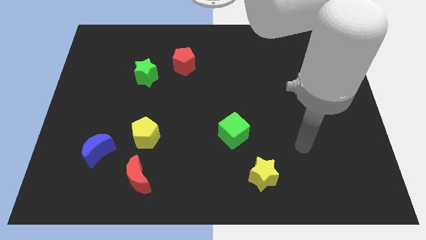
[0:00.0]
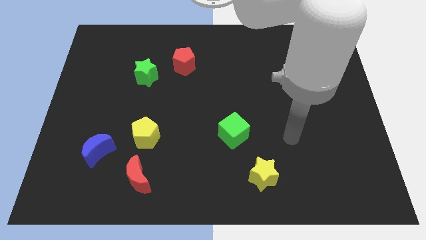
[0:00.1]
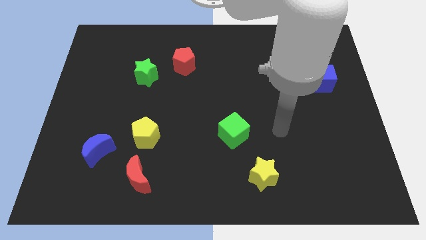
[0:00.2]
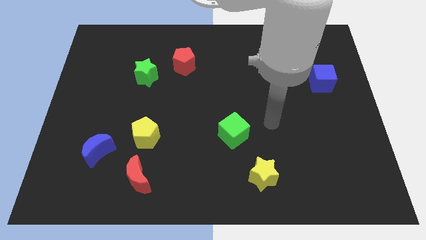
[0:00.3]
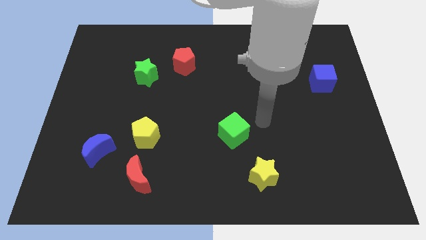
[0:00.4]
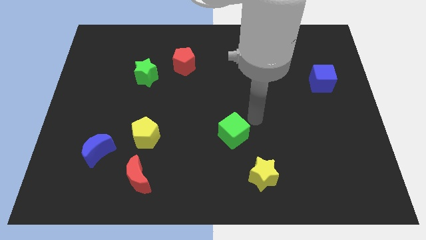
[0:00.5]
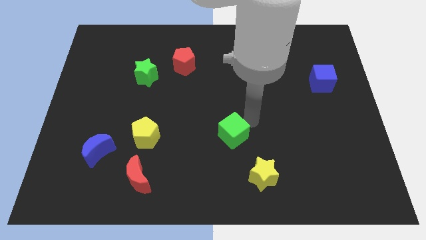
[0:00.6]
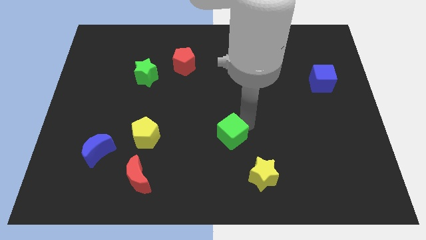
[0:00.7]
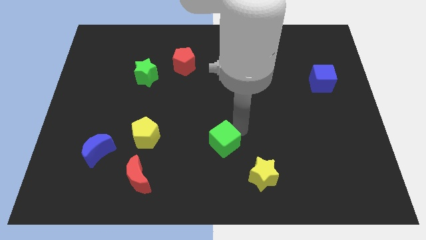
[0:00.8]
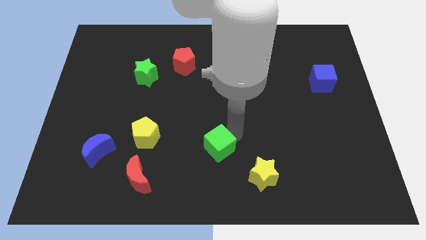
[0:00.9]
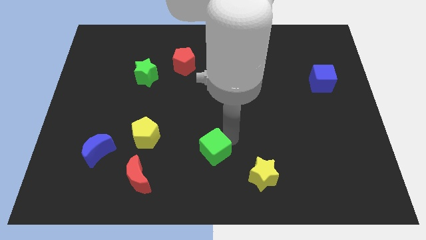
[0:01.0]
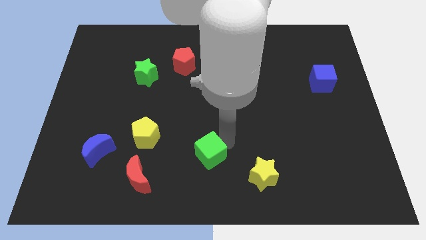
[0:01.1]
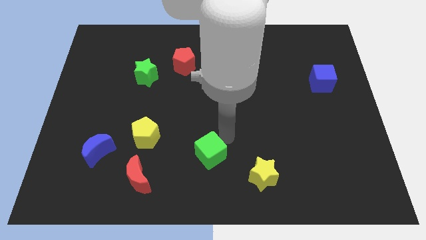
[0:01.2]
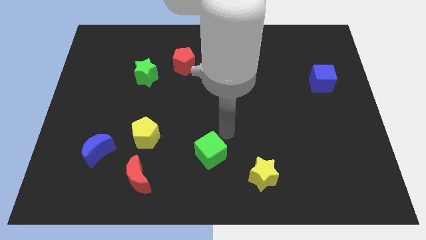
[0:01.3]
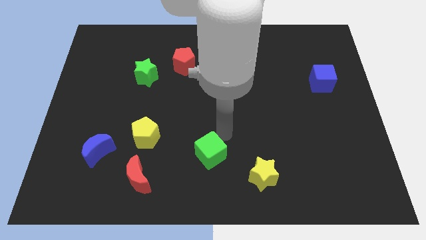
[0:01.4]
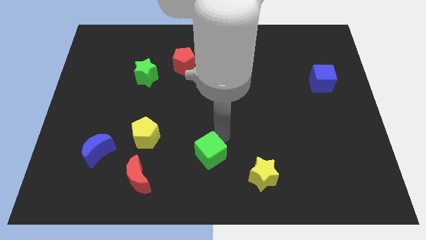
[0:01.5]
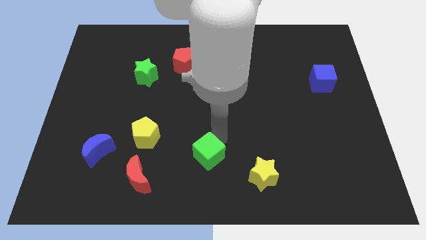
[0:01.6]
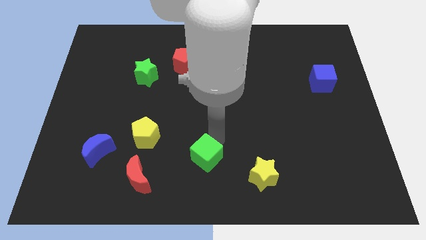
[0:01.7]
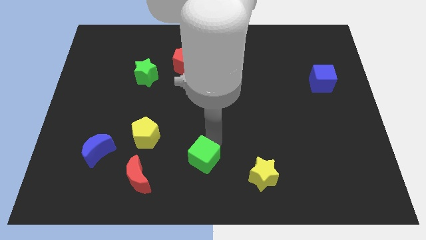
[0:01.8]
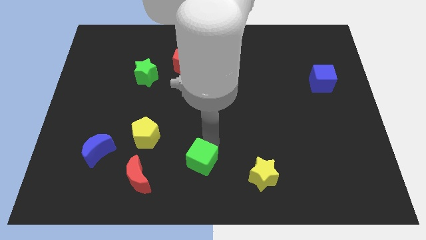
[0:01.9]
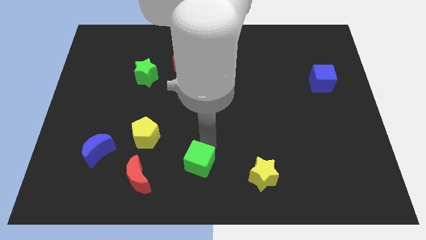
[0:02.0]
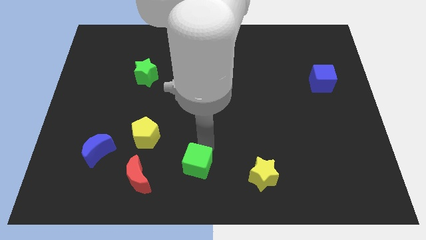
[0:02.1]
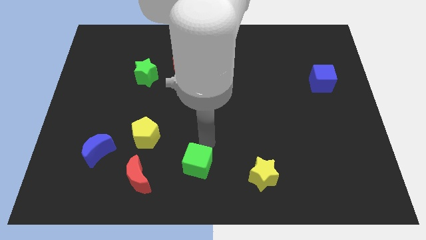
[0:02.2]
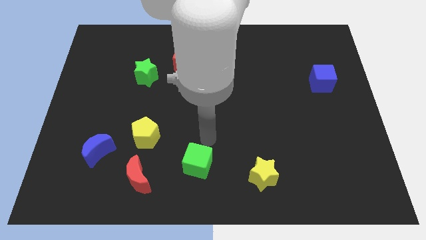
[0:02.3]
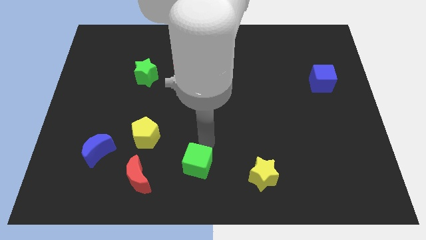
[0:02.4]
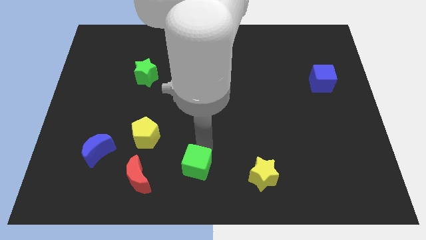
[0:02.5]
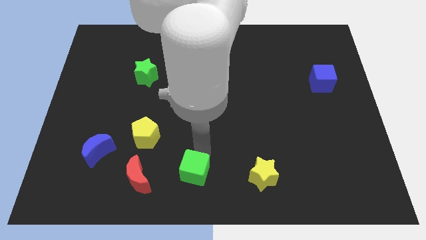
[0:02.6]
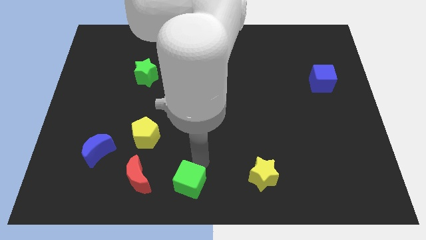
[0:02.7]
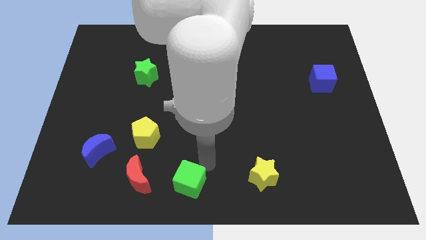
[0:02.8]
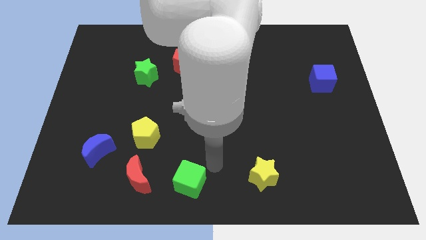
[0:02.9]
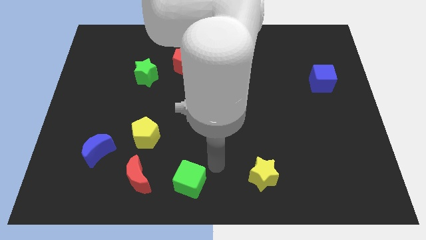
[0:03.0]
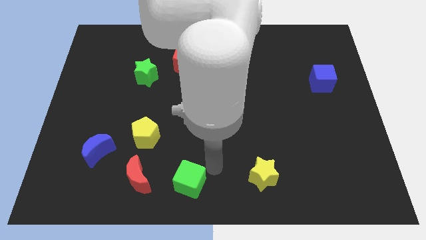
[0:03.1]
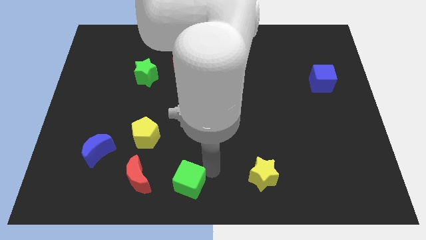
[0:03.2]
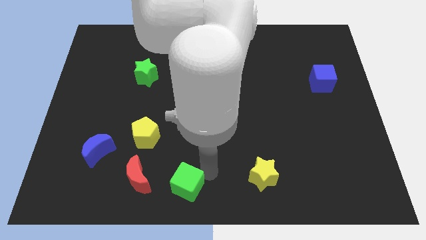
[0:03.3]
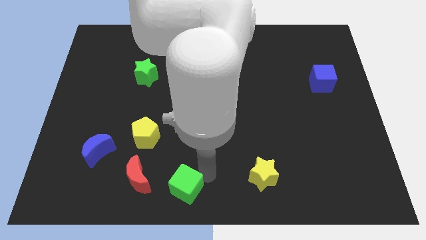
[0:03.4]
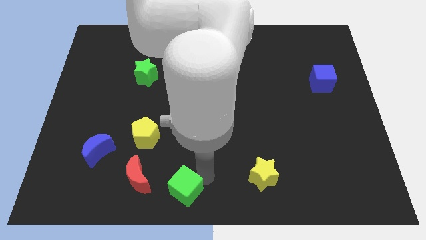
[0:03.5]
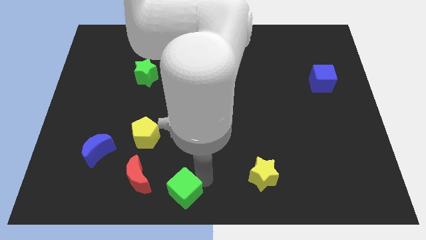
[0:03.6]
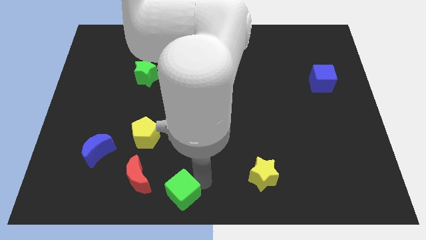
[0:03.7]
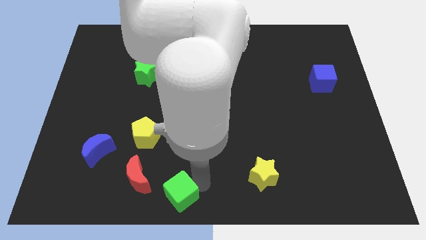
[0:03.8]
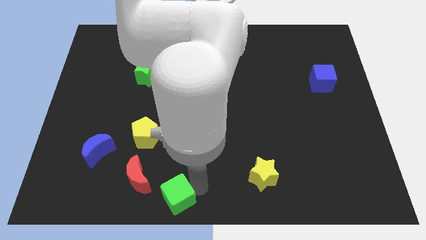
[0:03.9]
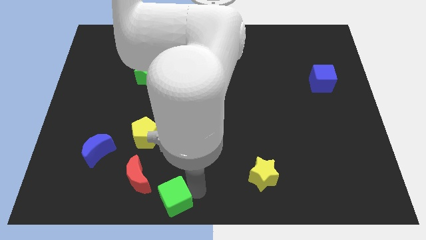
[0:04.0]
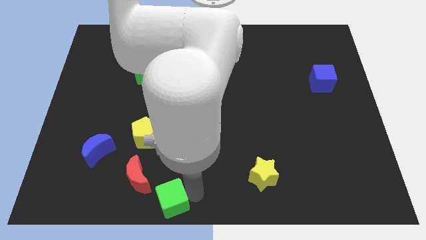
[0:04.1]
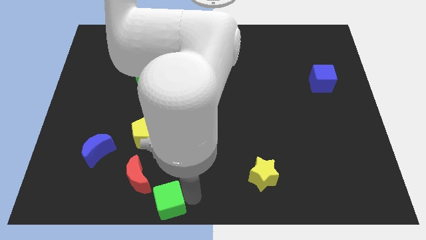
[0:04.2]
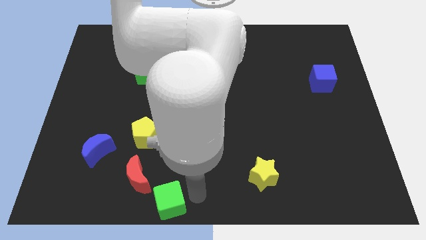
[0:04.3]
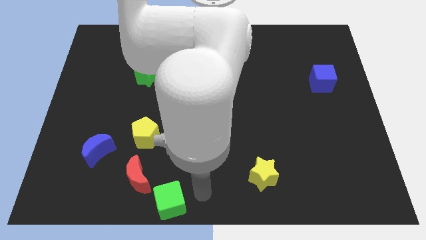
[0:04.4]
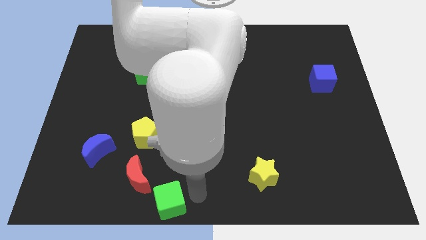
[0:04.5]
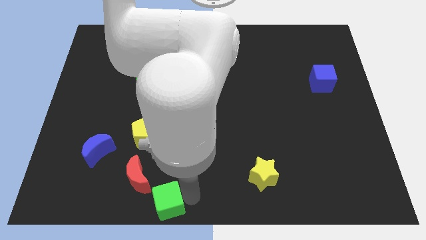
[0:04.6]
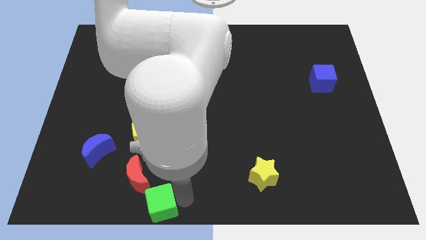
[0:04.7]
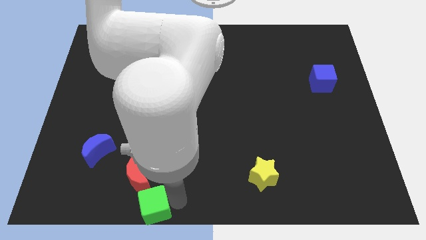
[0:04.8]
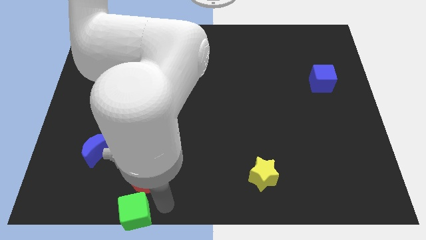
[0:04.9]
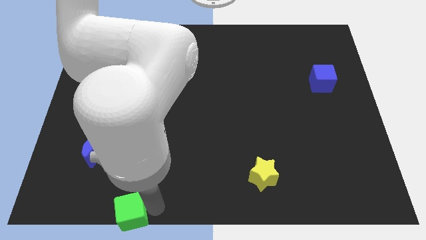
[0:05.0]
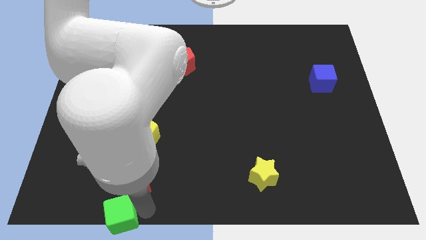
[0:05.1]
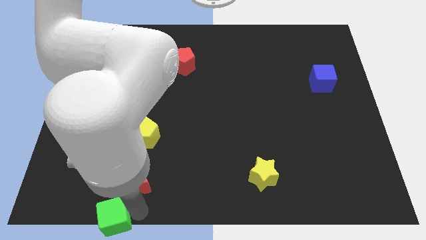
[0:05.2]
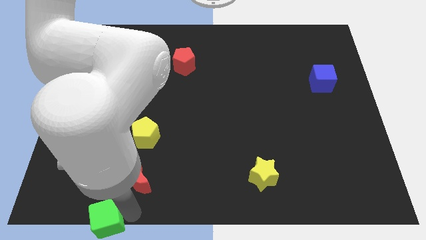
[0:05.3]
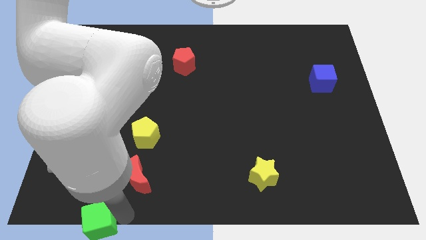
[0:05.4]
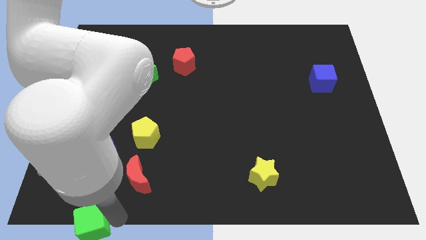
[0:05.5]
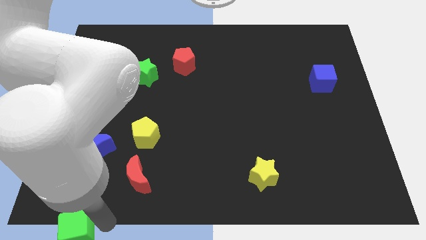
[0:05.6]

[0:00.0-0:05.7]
slide the green cube to the bottom left

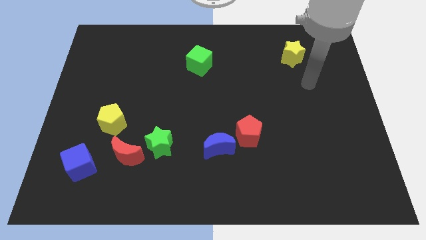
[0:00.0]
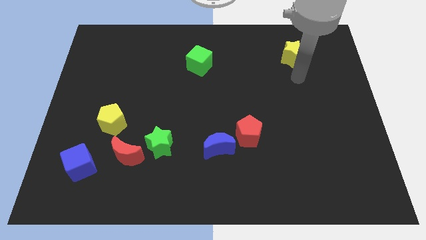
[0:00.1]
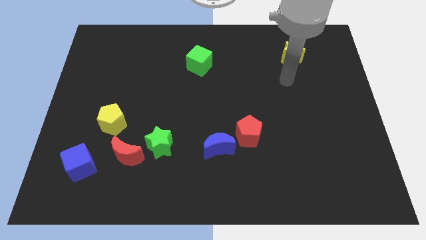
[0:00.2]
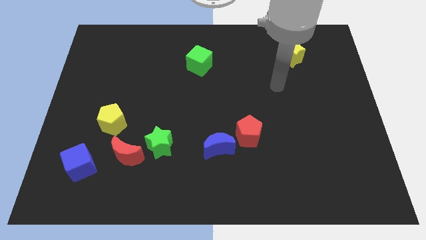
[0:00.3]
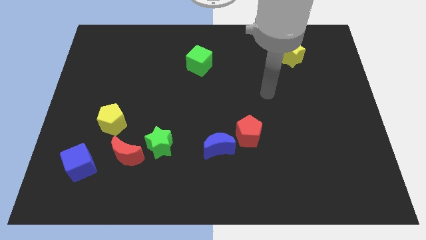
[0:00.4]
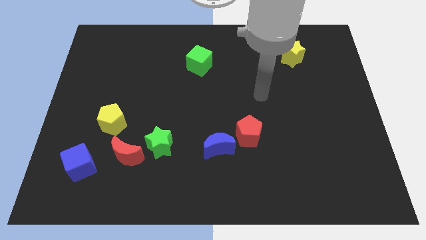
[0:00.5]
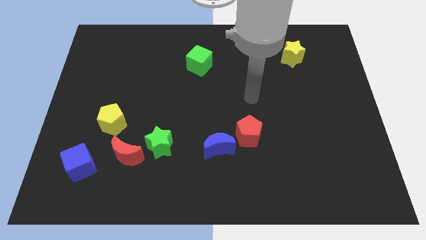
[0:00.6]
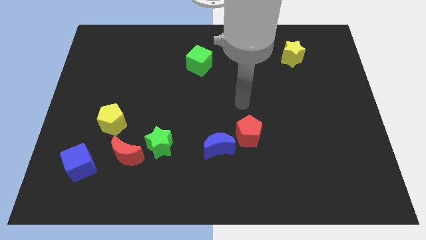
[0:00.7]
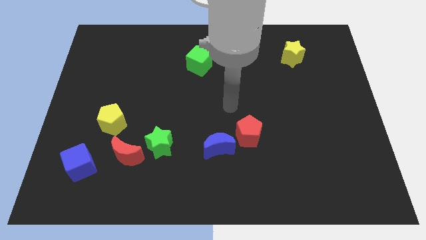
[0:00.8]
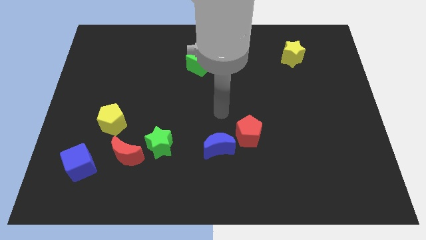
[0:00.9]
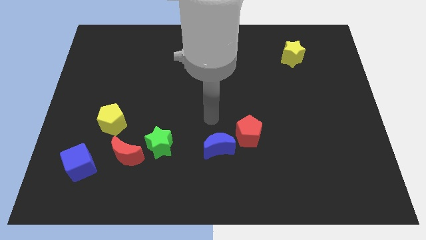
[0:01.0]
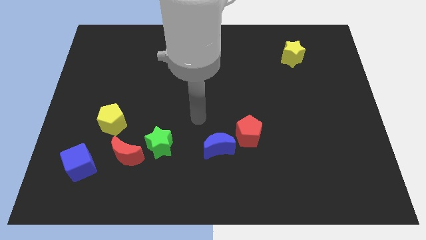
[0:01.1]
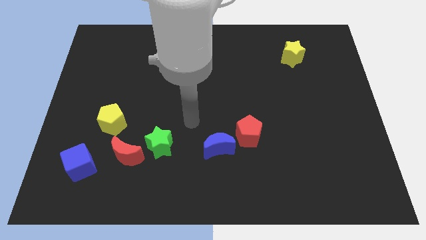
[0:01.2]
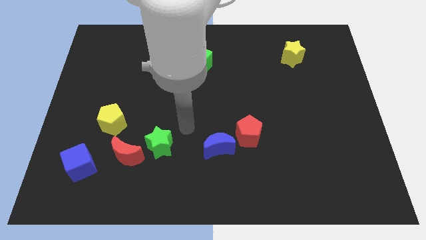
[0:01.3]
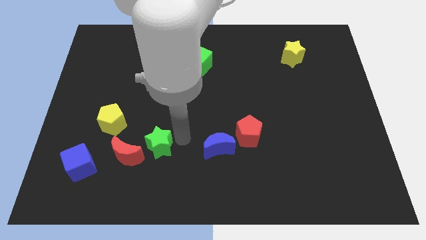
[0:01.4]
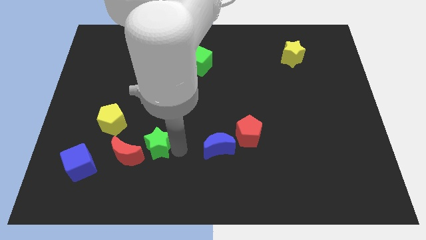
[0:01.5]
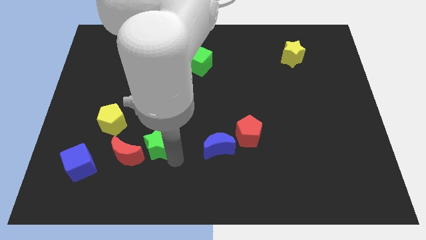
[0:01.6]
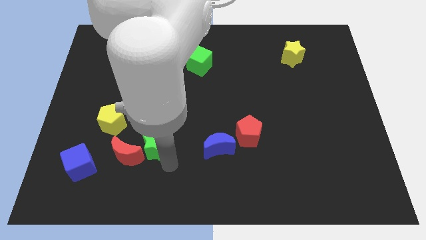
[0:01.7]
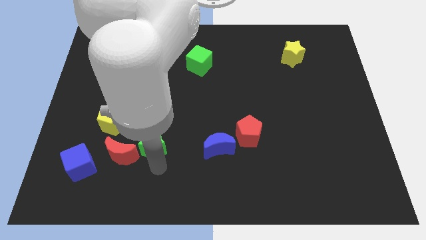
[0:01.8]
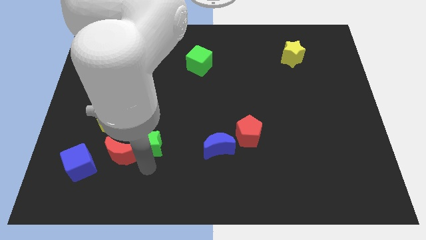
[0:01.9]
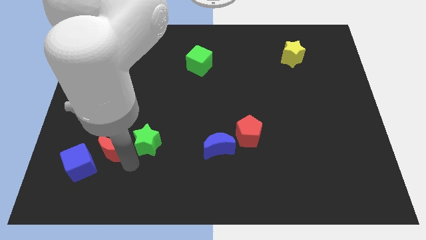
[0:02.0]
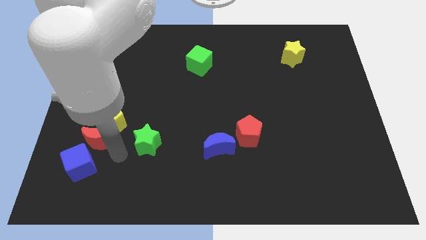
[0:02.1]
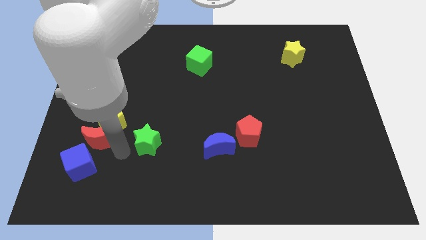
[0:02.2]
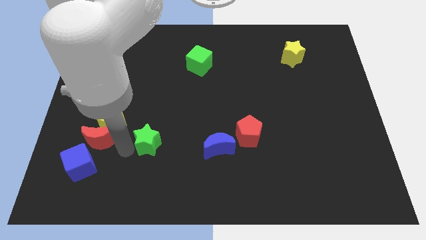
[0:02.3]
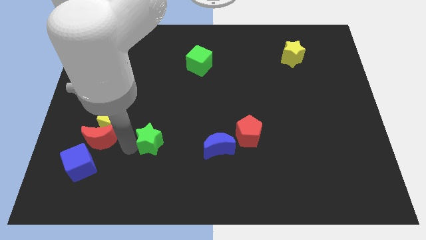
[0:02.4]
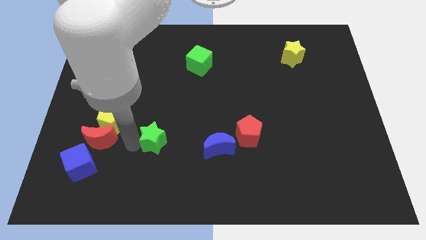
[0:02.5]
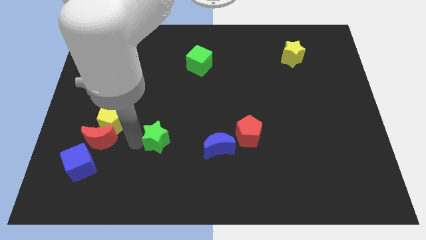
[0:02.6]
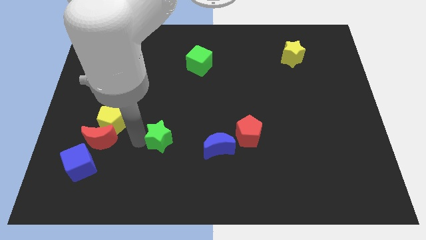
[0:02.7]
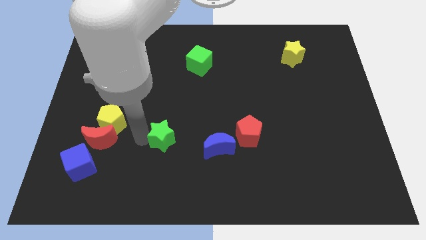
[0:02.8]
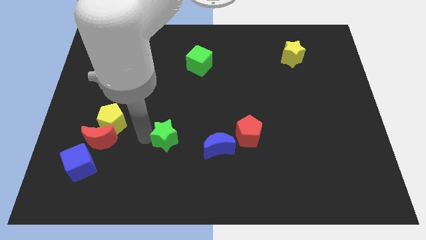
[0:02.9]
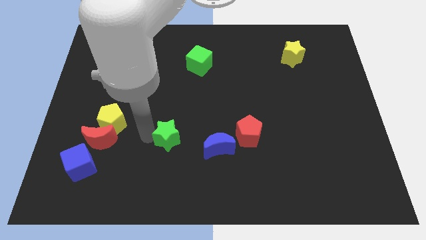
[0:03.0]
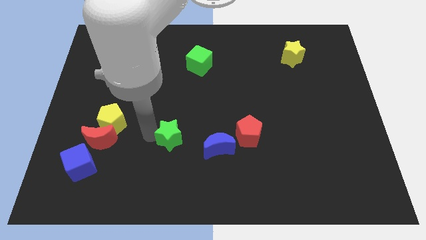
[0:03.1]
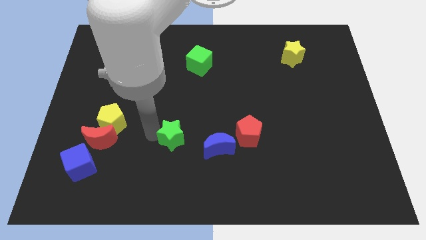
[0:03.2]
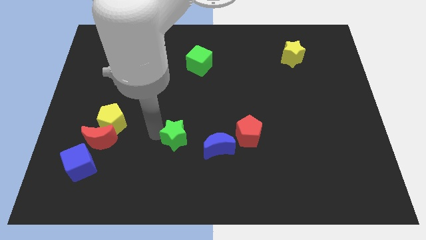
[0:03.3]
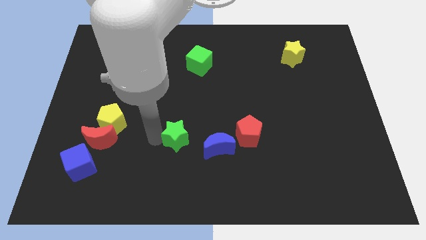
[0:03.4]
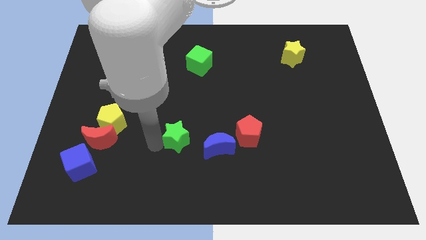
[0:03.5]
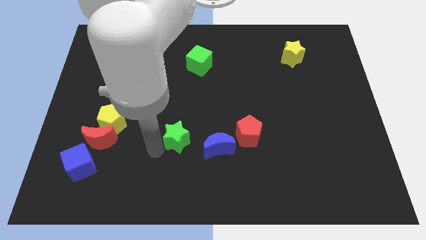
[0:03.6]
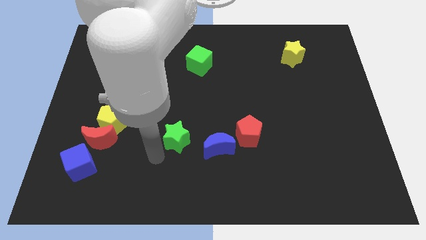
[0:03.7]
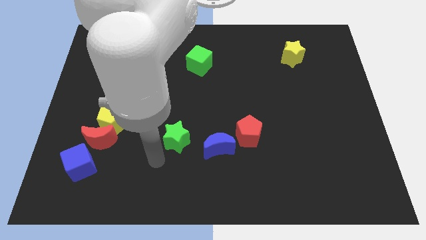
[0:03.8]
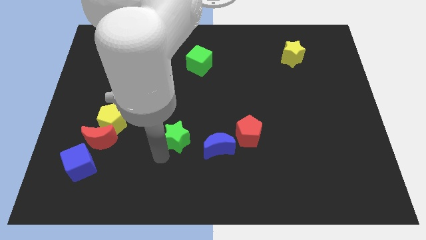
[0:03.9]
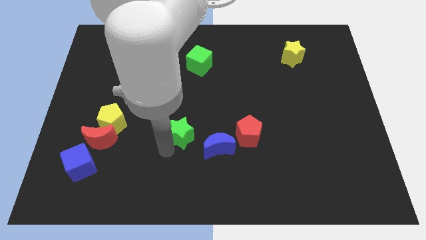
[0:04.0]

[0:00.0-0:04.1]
slide the green star to the center of the board
